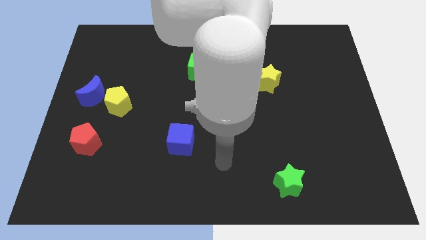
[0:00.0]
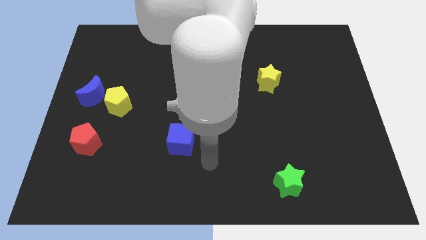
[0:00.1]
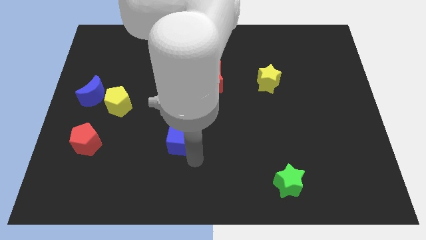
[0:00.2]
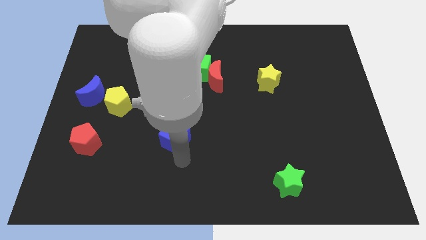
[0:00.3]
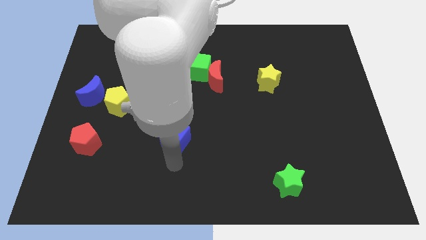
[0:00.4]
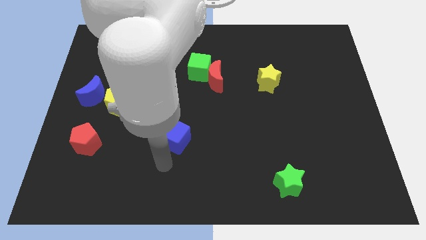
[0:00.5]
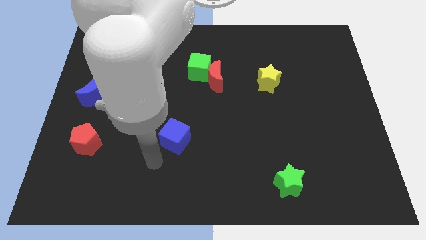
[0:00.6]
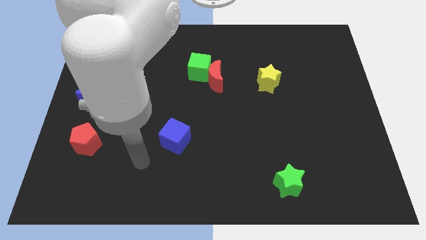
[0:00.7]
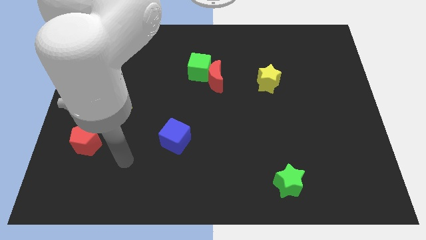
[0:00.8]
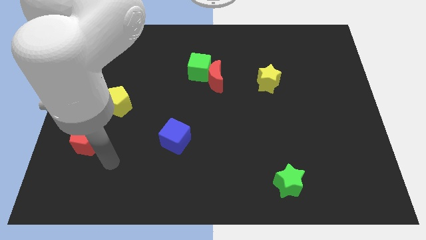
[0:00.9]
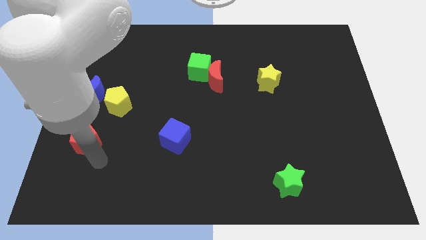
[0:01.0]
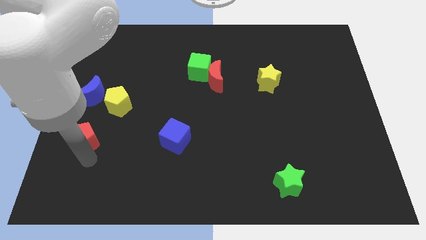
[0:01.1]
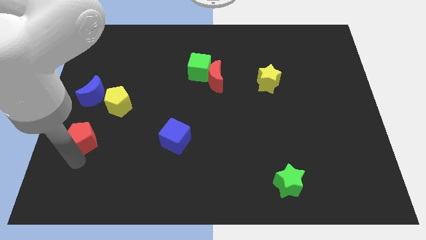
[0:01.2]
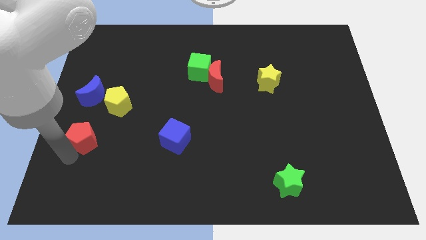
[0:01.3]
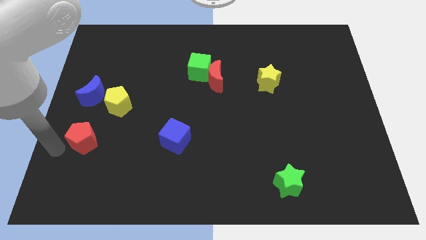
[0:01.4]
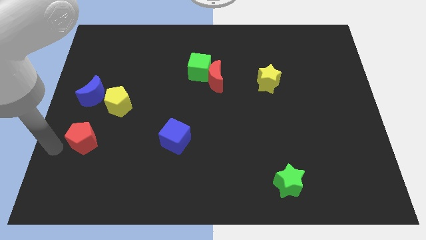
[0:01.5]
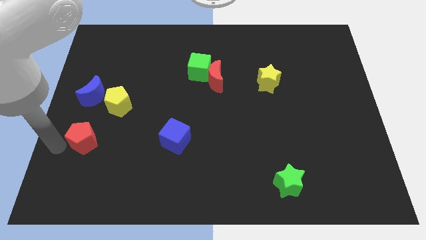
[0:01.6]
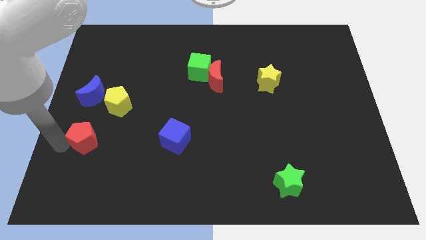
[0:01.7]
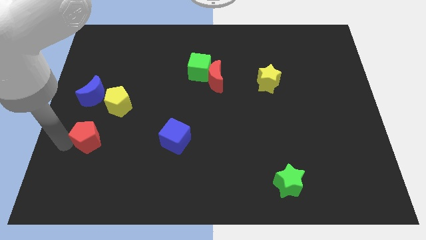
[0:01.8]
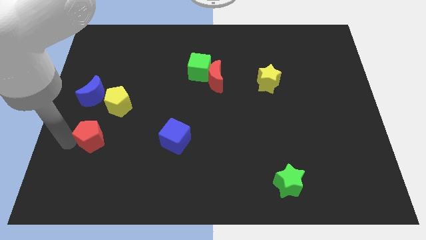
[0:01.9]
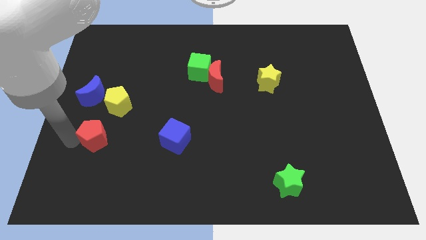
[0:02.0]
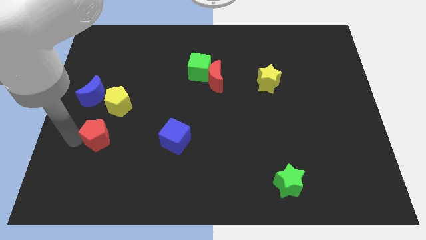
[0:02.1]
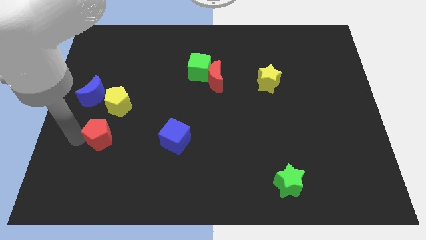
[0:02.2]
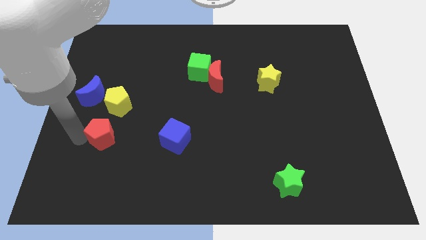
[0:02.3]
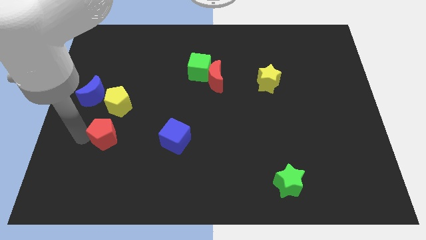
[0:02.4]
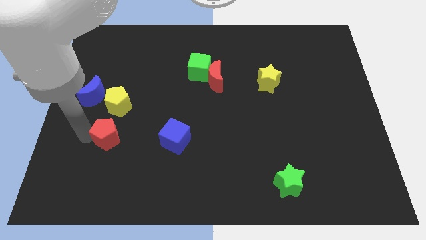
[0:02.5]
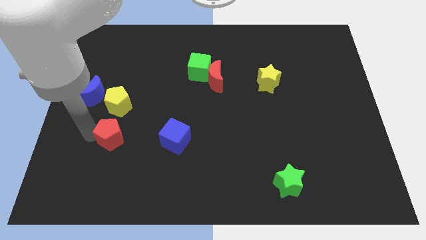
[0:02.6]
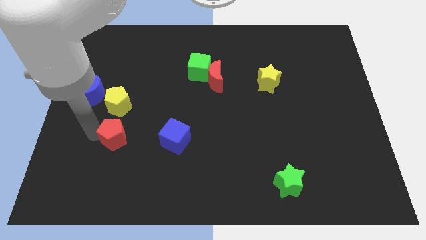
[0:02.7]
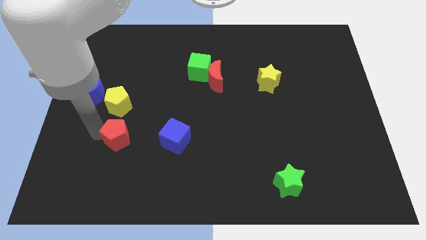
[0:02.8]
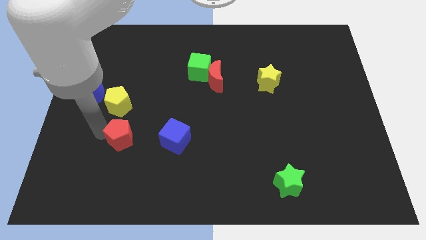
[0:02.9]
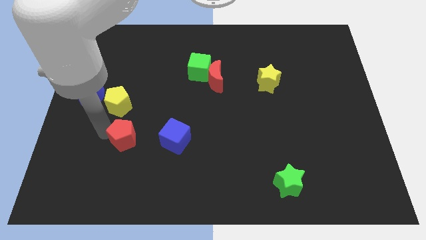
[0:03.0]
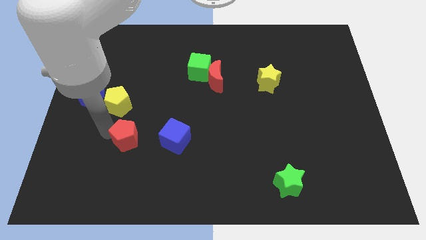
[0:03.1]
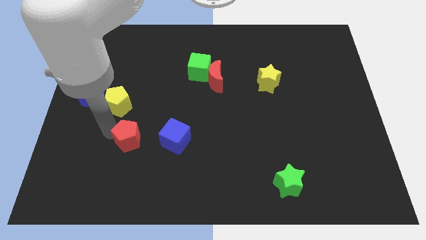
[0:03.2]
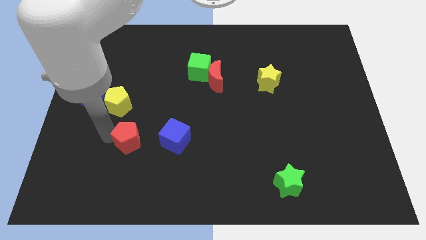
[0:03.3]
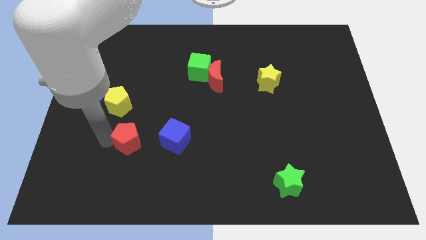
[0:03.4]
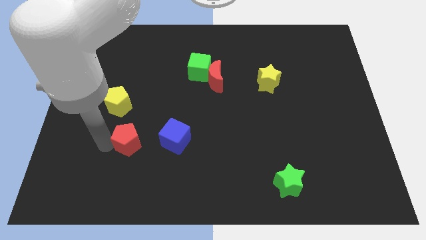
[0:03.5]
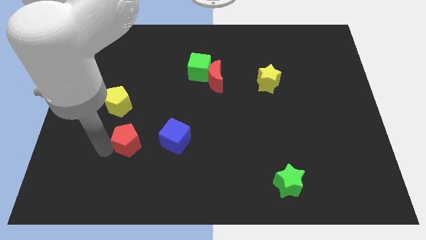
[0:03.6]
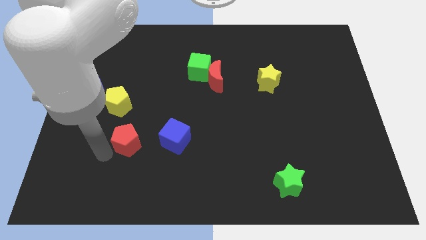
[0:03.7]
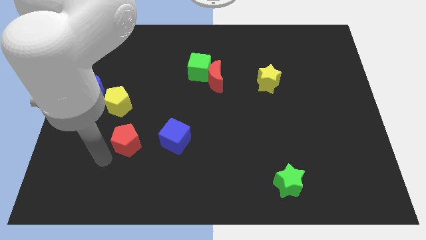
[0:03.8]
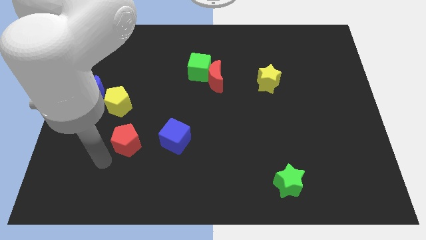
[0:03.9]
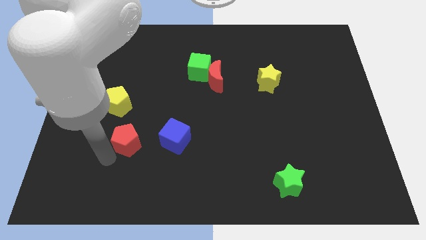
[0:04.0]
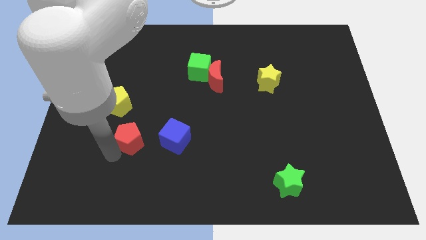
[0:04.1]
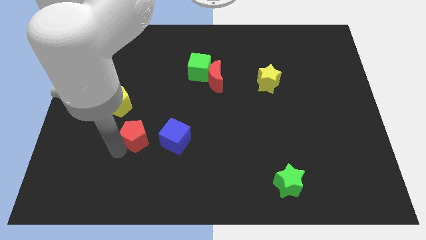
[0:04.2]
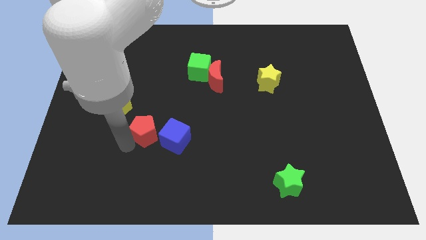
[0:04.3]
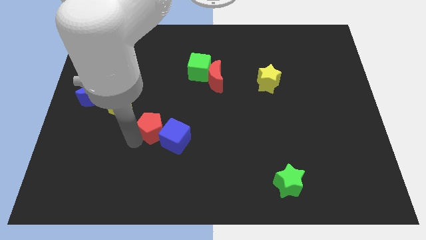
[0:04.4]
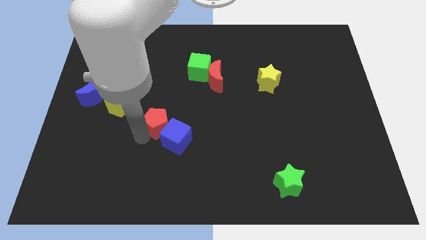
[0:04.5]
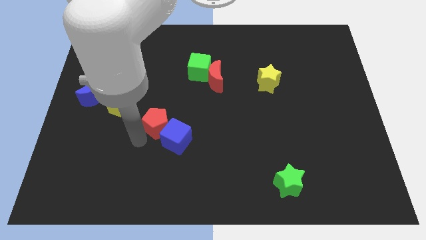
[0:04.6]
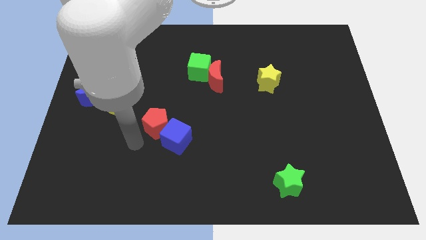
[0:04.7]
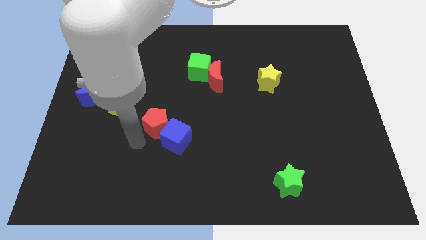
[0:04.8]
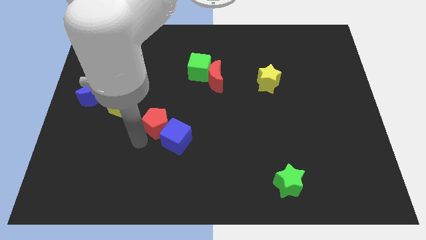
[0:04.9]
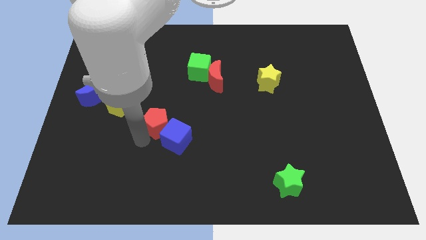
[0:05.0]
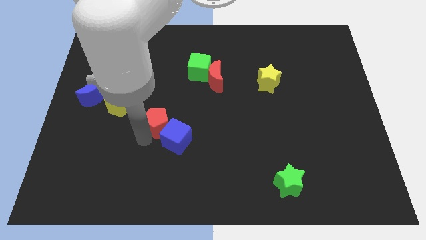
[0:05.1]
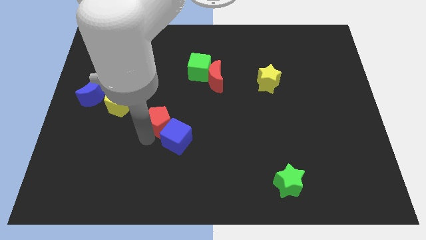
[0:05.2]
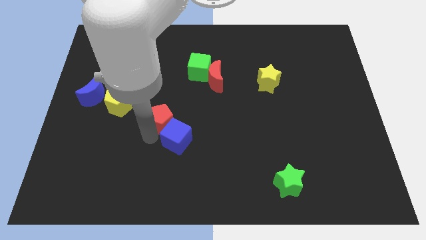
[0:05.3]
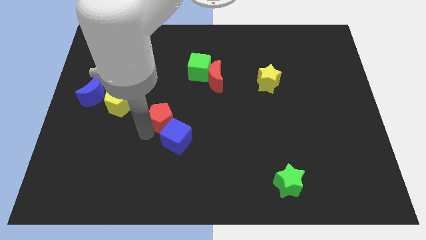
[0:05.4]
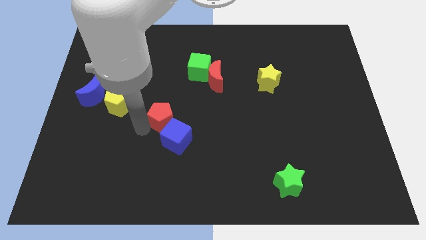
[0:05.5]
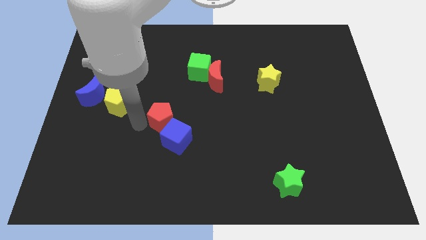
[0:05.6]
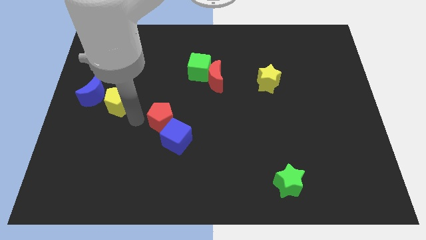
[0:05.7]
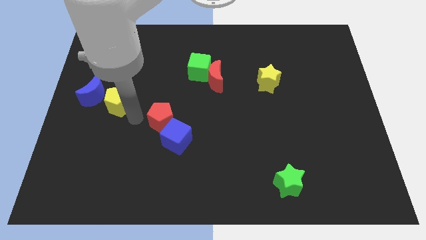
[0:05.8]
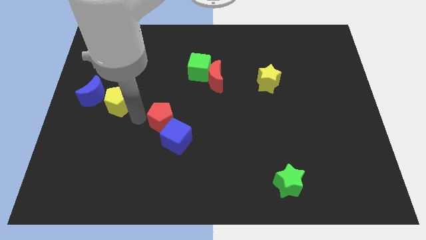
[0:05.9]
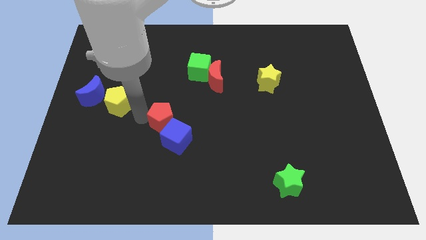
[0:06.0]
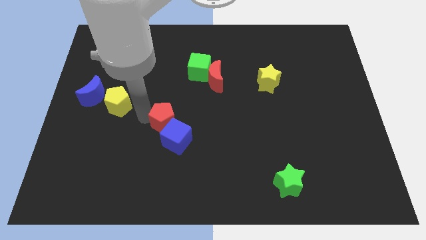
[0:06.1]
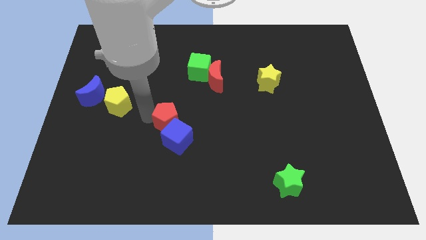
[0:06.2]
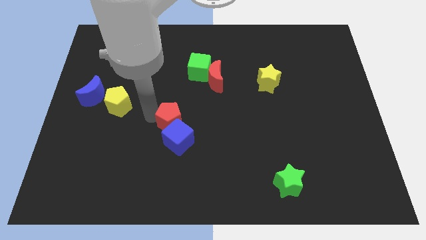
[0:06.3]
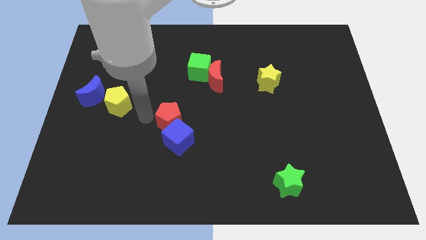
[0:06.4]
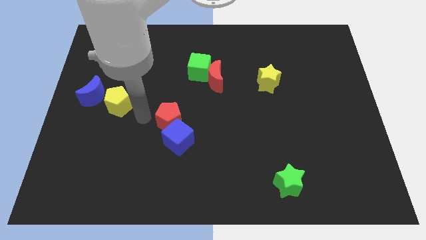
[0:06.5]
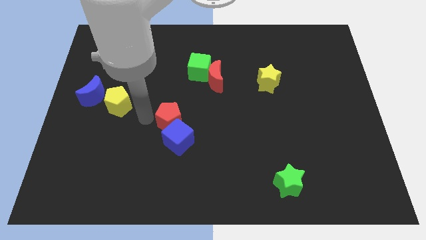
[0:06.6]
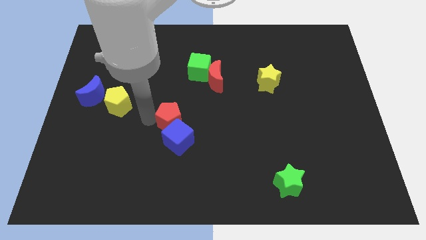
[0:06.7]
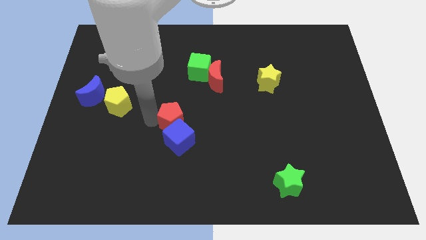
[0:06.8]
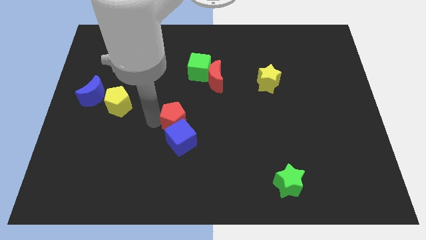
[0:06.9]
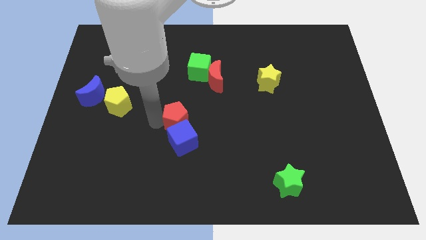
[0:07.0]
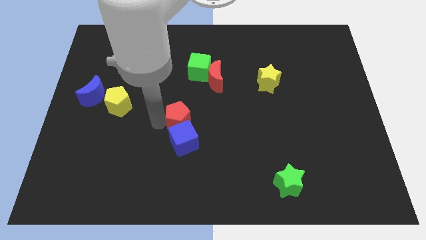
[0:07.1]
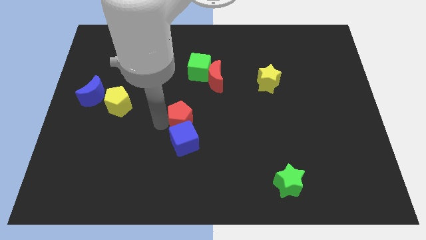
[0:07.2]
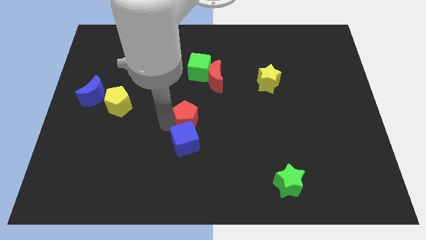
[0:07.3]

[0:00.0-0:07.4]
move the red pentagon to the right

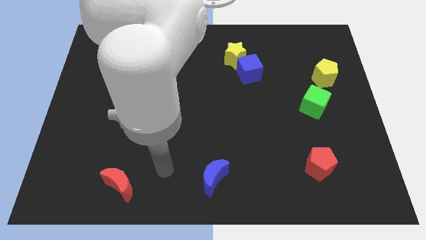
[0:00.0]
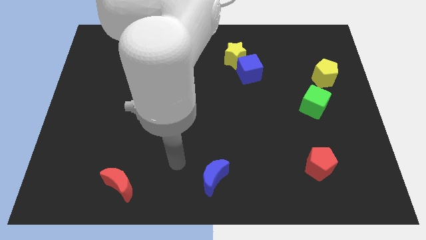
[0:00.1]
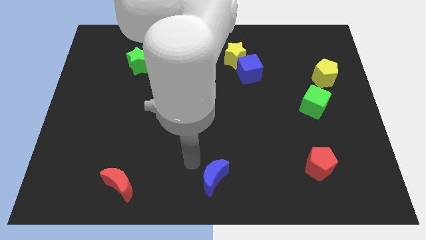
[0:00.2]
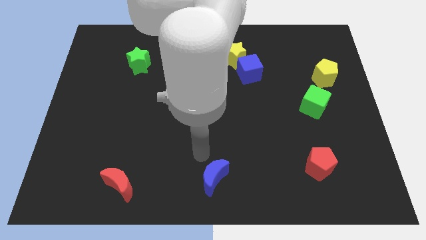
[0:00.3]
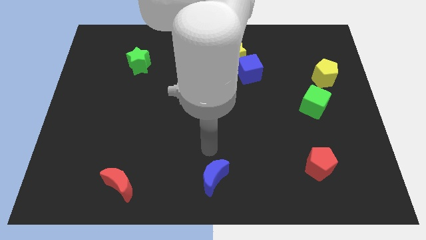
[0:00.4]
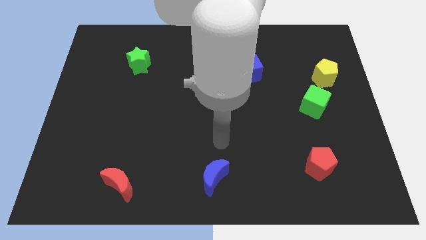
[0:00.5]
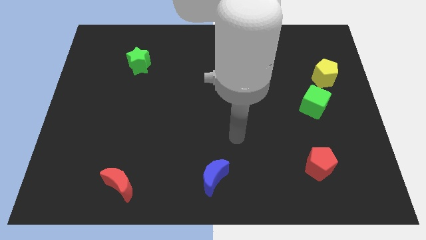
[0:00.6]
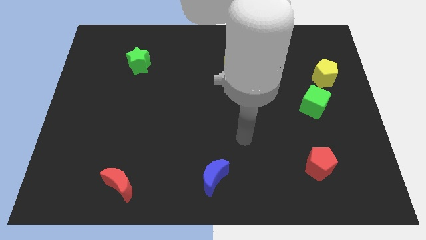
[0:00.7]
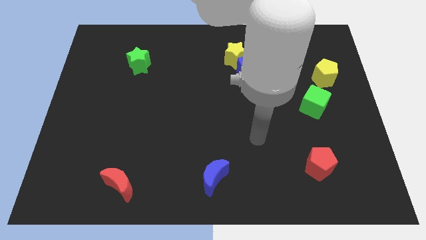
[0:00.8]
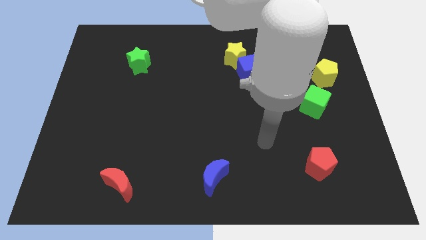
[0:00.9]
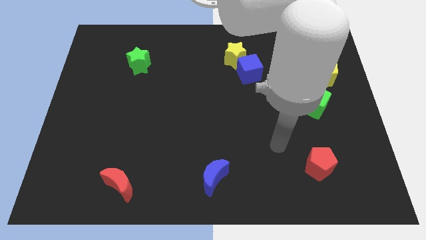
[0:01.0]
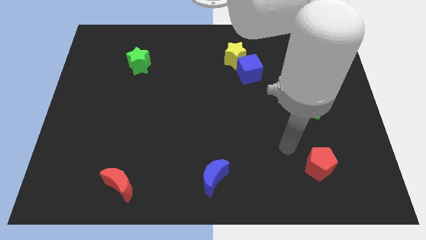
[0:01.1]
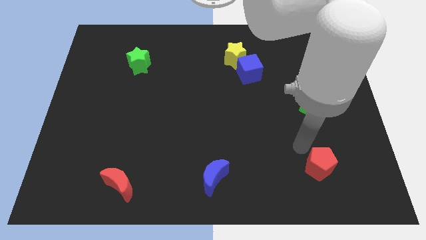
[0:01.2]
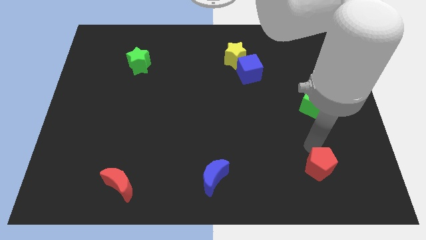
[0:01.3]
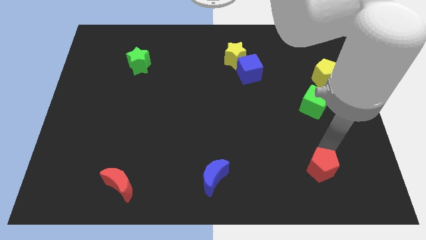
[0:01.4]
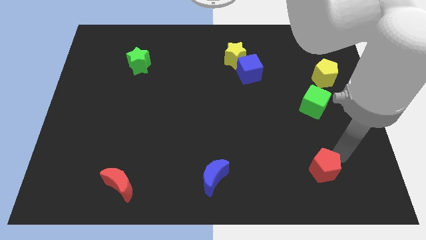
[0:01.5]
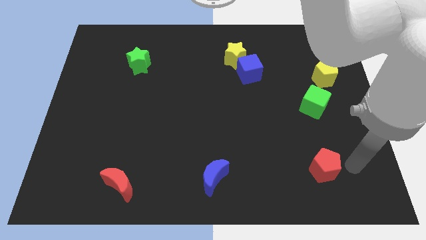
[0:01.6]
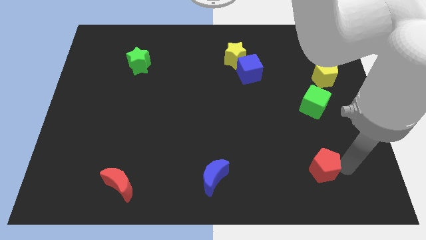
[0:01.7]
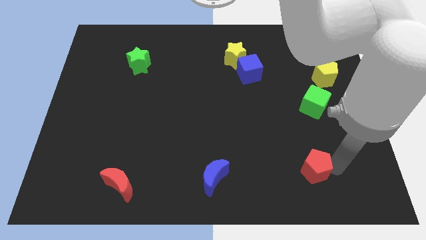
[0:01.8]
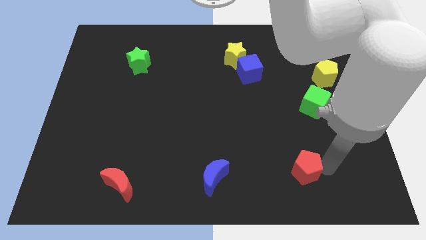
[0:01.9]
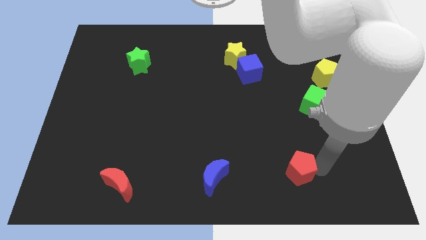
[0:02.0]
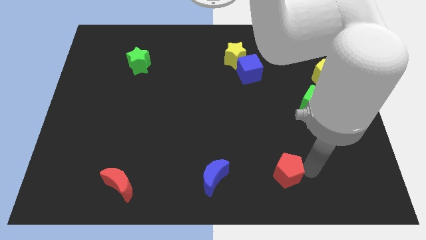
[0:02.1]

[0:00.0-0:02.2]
move the red pentagon slightly to the left
